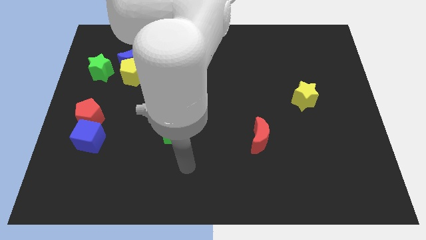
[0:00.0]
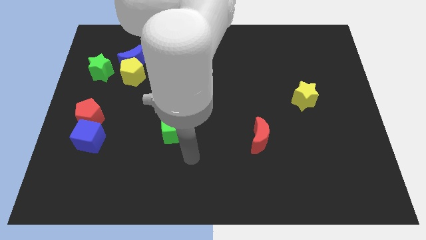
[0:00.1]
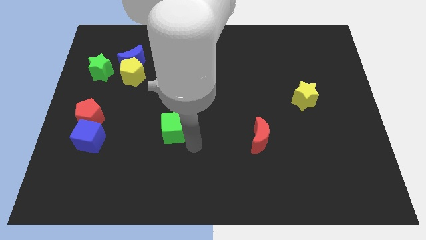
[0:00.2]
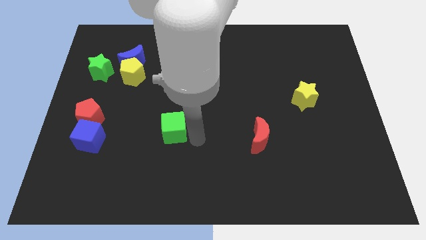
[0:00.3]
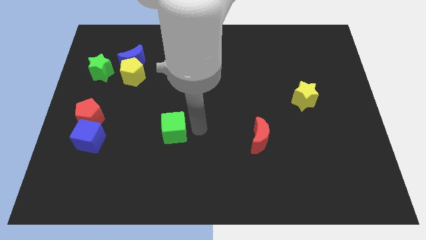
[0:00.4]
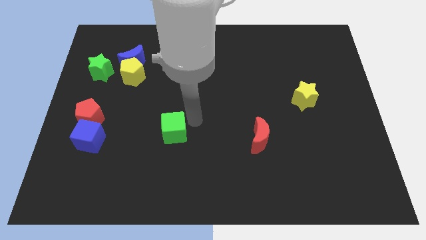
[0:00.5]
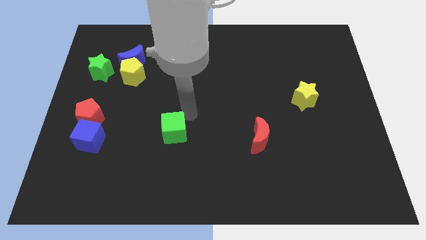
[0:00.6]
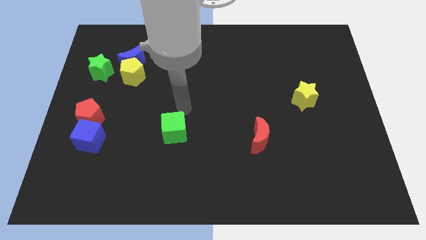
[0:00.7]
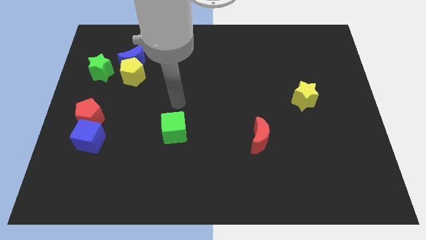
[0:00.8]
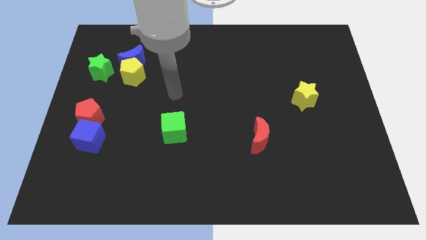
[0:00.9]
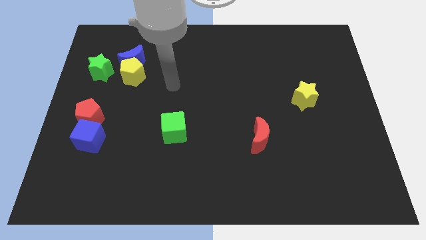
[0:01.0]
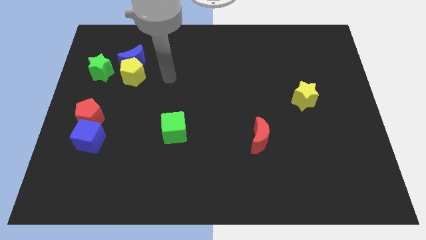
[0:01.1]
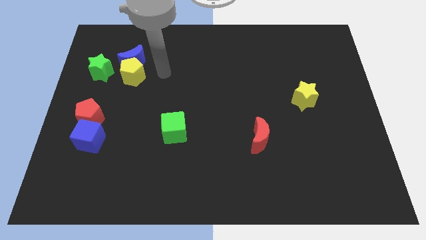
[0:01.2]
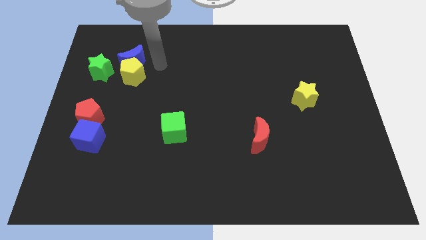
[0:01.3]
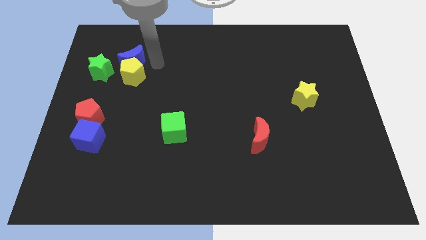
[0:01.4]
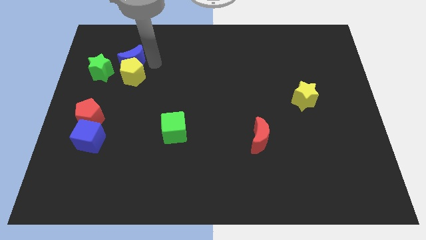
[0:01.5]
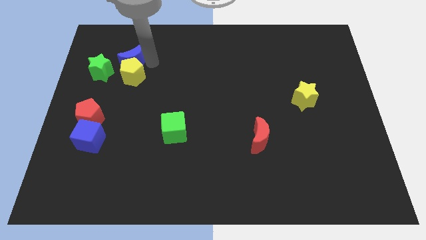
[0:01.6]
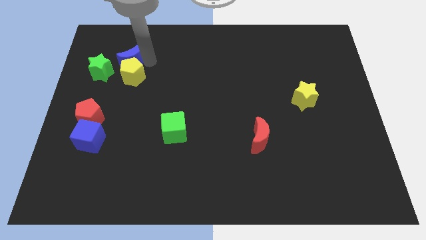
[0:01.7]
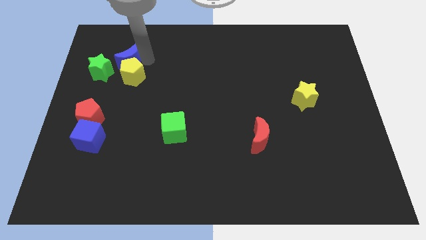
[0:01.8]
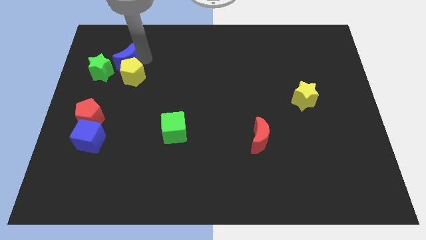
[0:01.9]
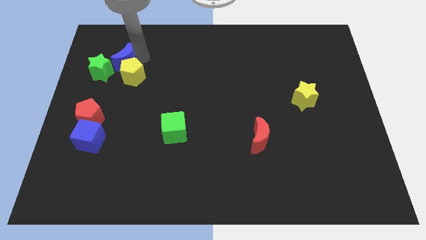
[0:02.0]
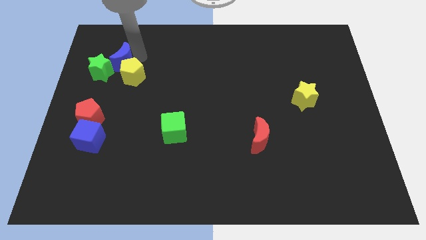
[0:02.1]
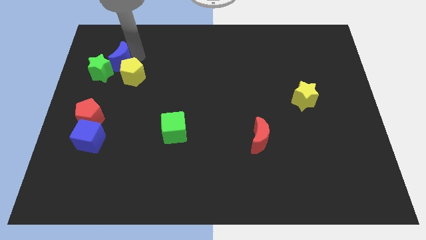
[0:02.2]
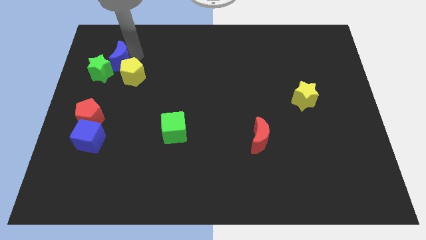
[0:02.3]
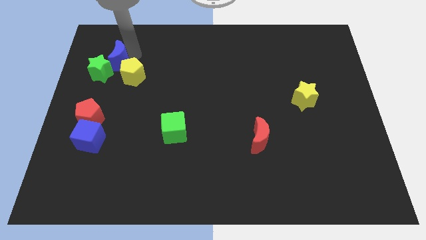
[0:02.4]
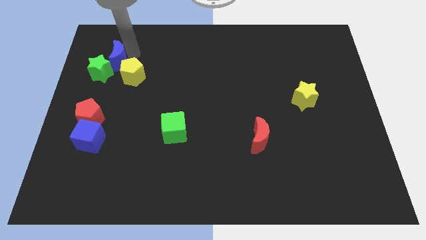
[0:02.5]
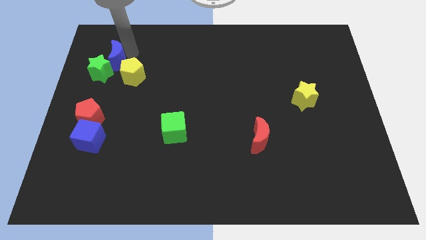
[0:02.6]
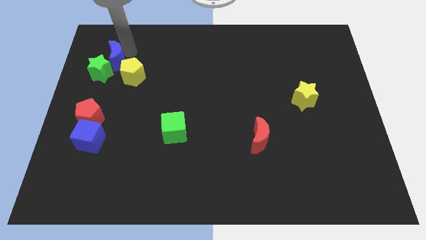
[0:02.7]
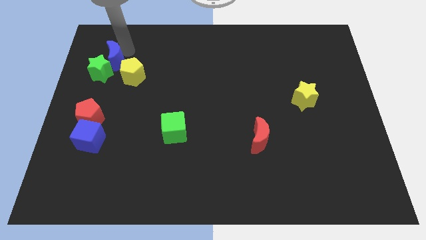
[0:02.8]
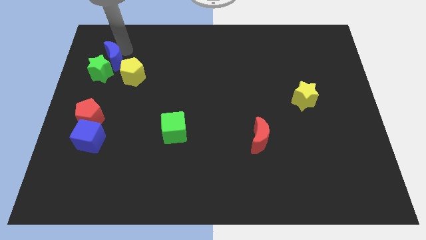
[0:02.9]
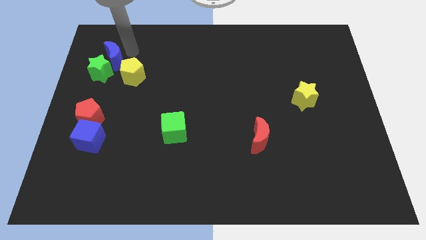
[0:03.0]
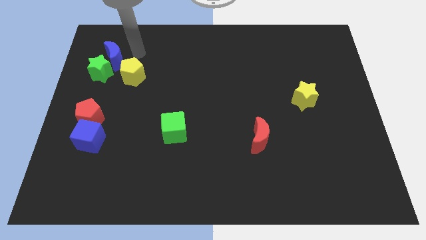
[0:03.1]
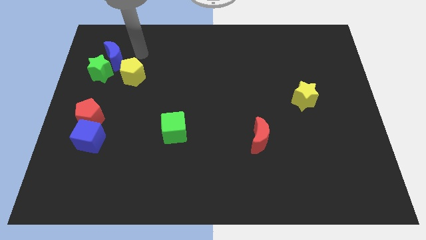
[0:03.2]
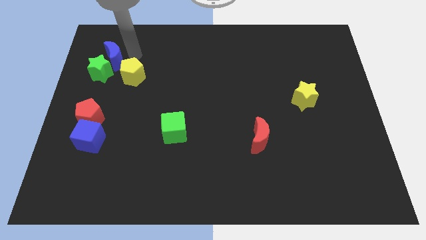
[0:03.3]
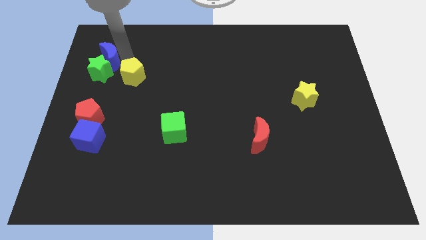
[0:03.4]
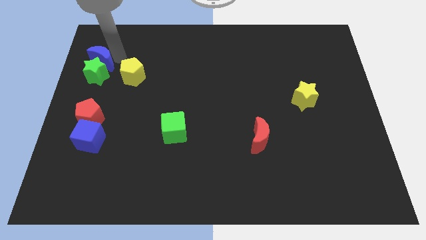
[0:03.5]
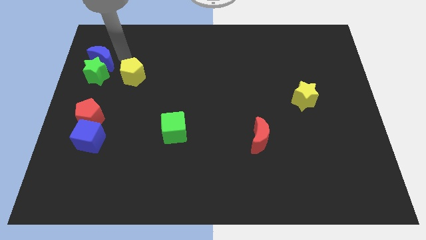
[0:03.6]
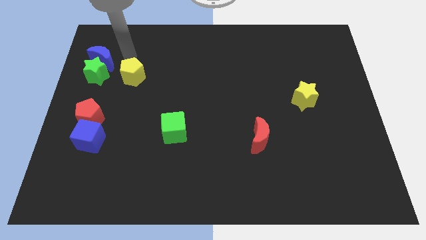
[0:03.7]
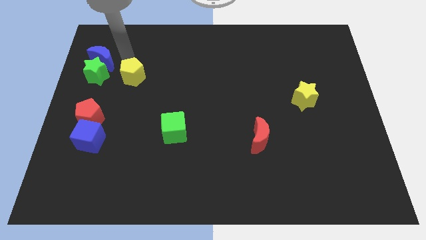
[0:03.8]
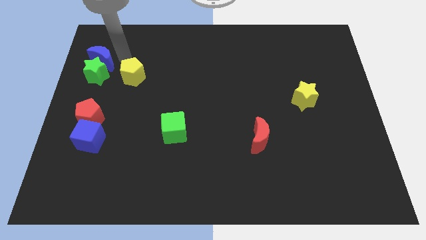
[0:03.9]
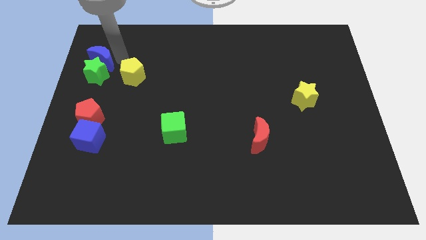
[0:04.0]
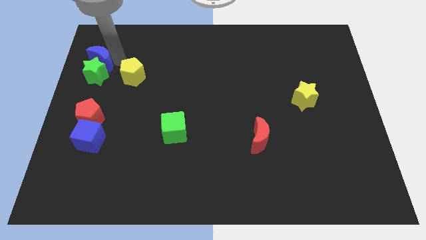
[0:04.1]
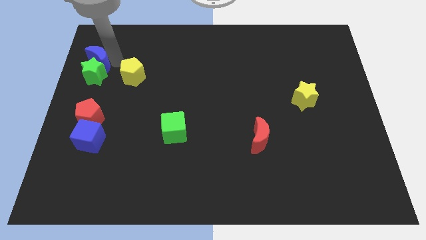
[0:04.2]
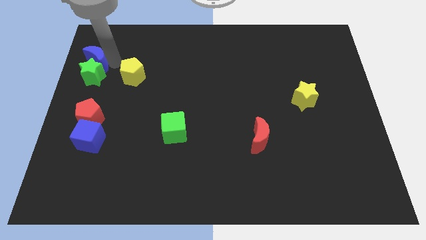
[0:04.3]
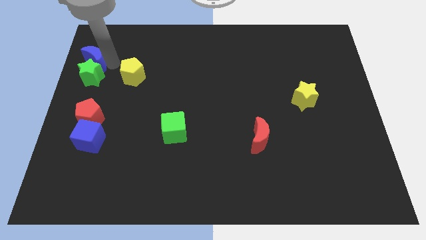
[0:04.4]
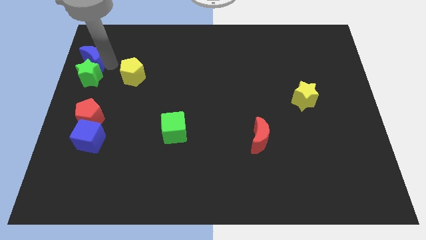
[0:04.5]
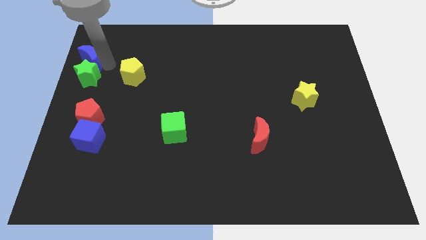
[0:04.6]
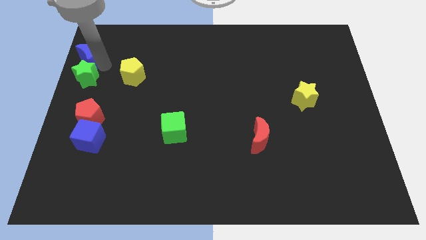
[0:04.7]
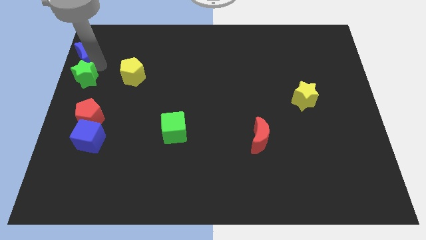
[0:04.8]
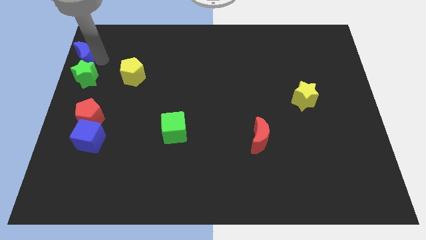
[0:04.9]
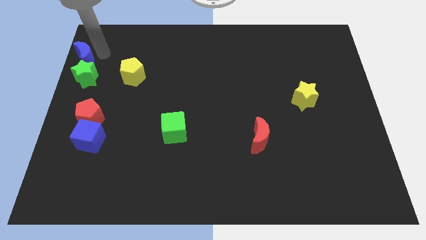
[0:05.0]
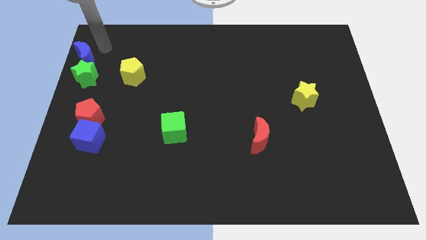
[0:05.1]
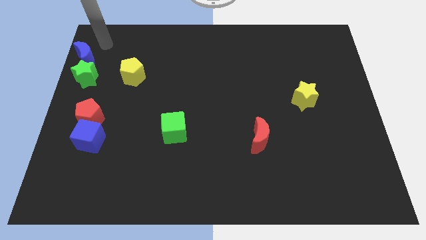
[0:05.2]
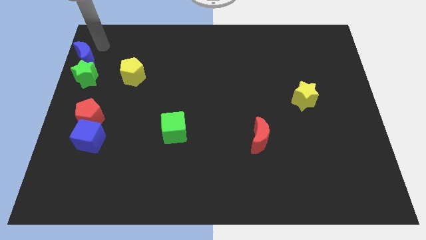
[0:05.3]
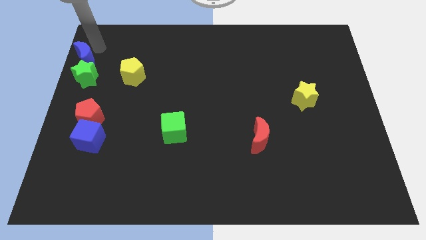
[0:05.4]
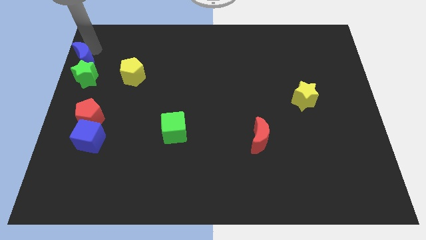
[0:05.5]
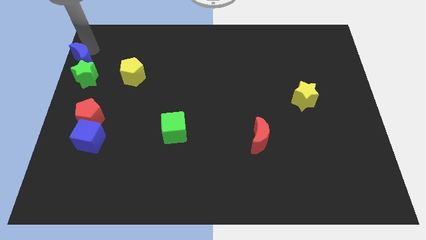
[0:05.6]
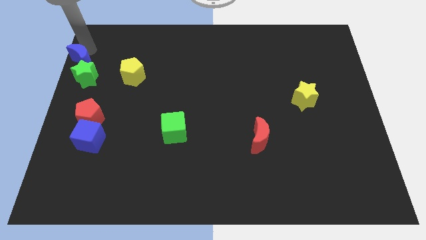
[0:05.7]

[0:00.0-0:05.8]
slide the blue moon to the left side of the board

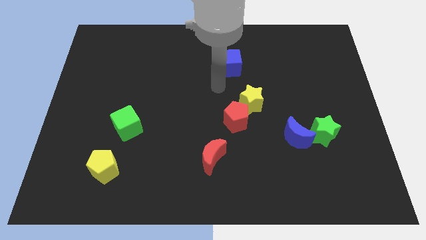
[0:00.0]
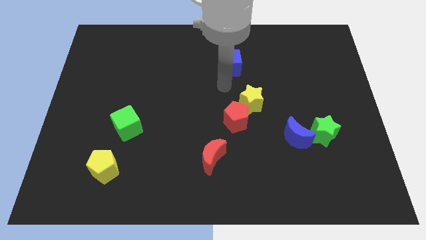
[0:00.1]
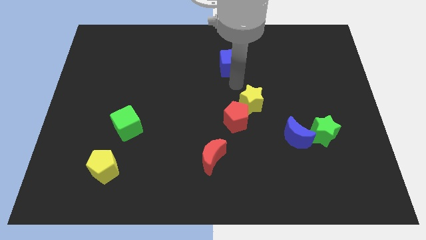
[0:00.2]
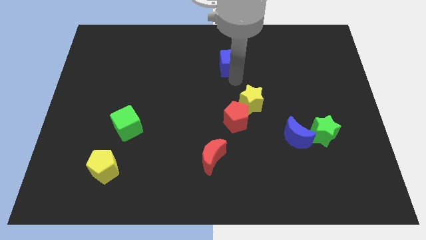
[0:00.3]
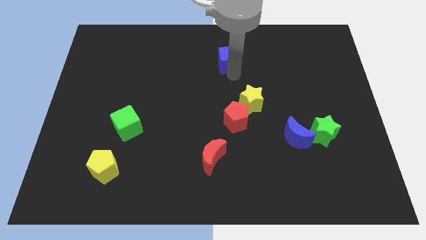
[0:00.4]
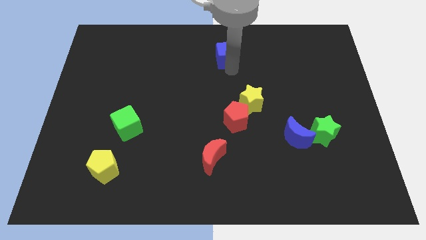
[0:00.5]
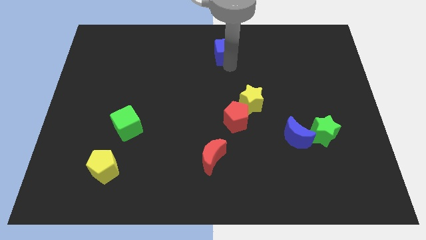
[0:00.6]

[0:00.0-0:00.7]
put the blue cube to the top

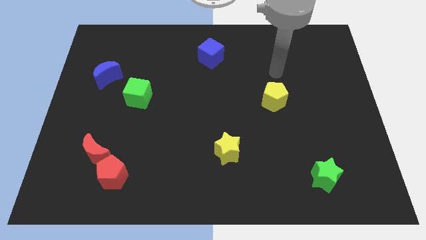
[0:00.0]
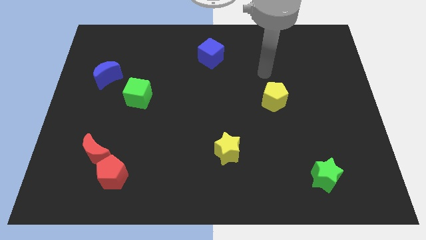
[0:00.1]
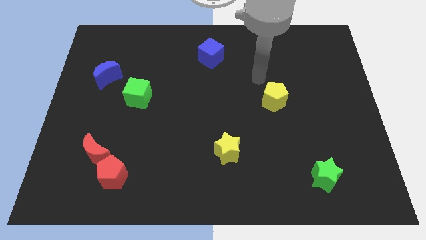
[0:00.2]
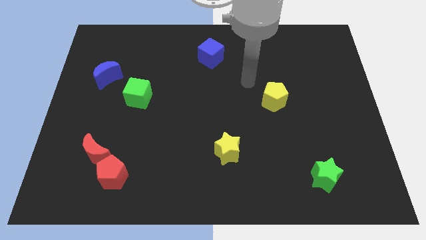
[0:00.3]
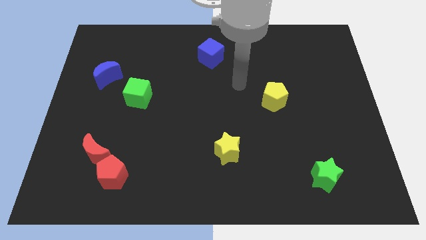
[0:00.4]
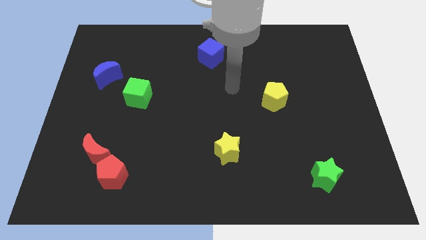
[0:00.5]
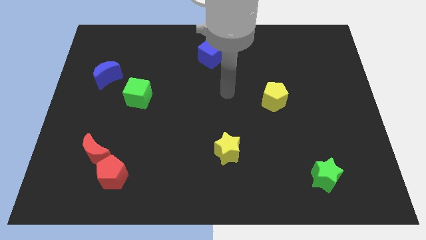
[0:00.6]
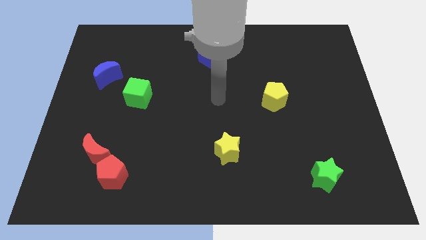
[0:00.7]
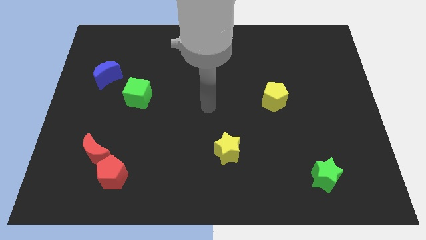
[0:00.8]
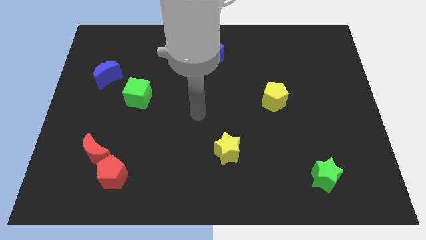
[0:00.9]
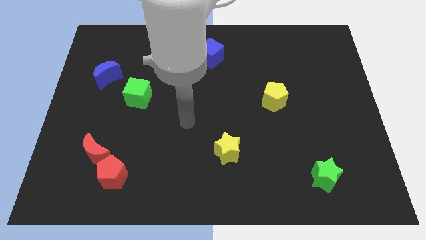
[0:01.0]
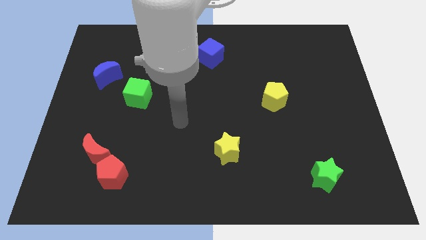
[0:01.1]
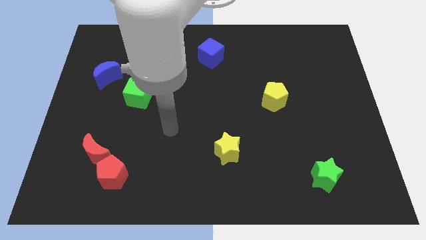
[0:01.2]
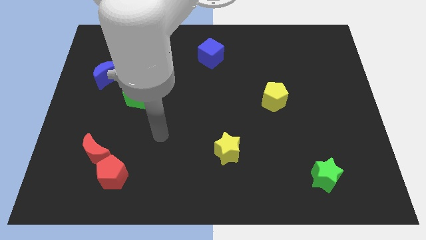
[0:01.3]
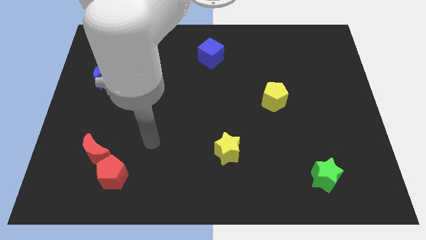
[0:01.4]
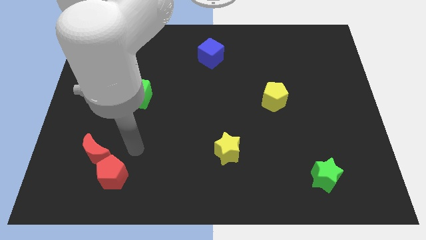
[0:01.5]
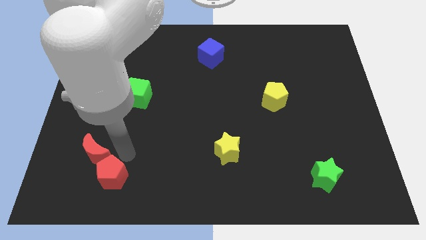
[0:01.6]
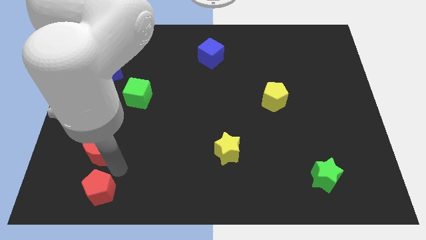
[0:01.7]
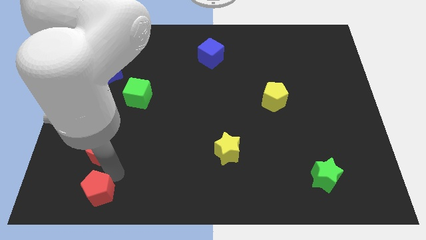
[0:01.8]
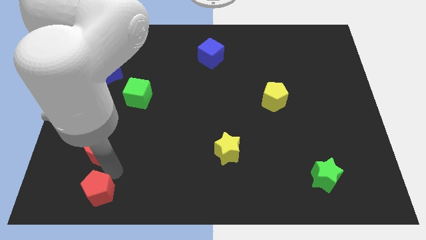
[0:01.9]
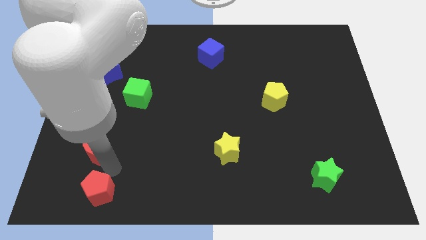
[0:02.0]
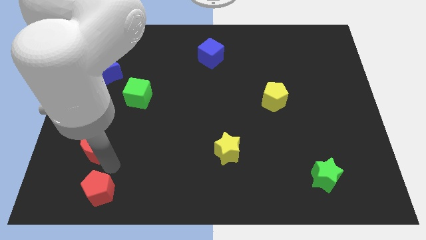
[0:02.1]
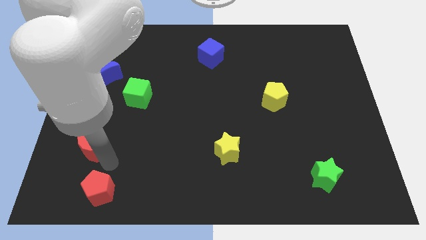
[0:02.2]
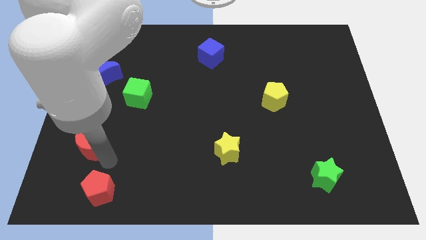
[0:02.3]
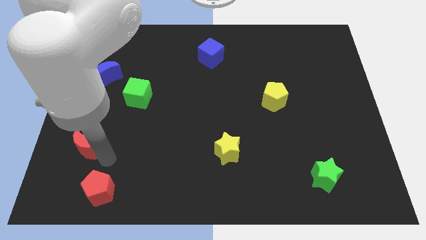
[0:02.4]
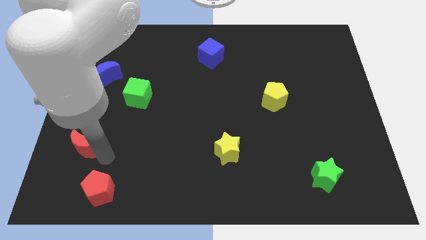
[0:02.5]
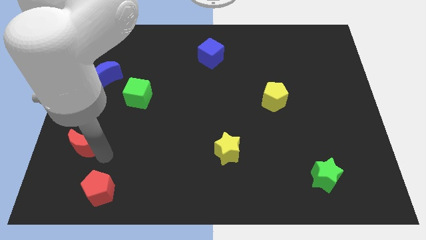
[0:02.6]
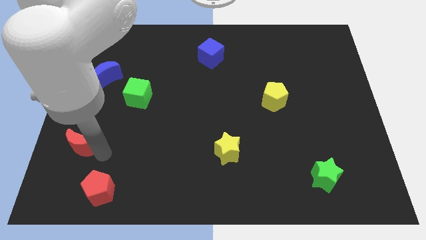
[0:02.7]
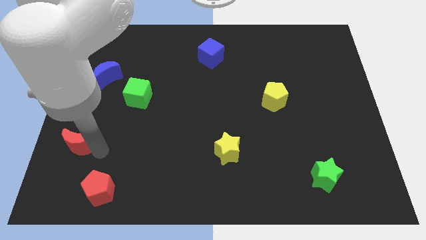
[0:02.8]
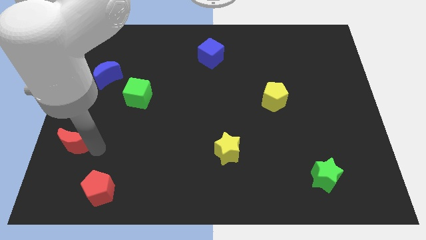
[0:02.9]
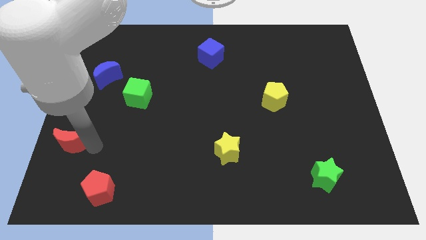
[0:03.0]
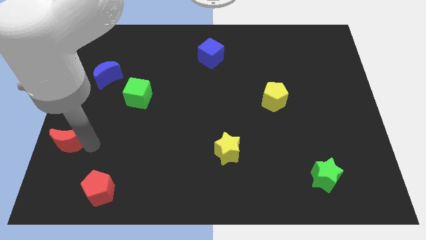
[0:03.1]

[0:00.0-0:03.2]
push the red moon to the center left
